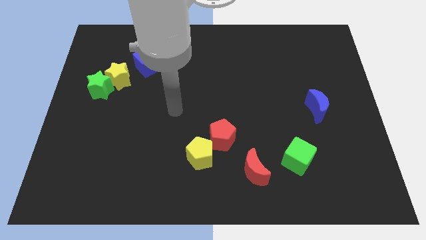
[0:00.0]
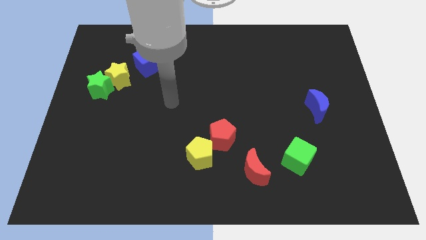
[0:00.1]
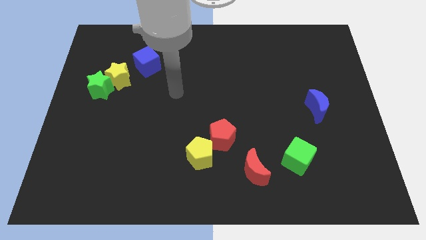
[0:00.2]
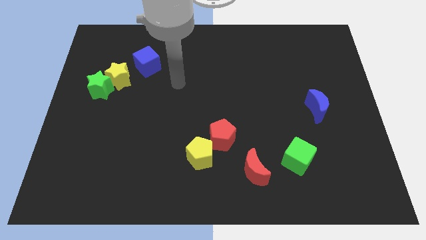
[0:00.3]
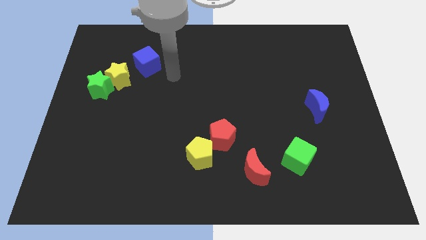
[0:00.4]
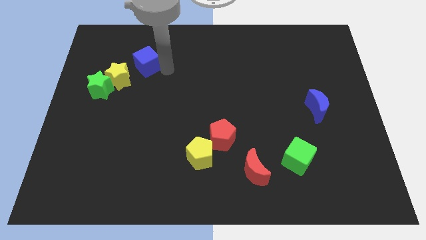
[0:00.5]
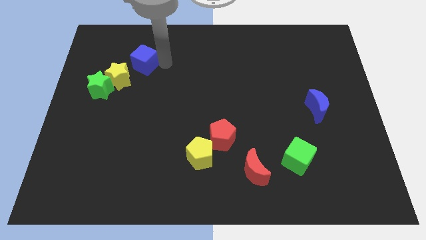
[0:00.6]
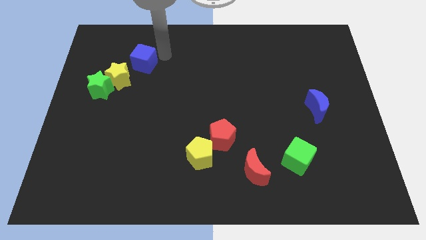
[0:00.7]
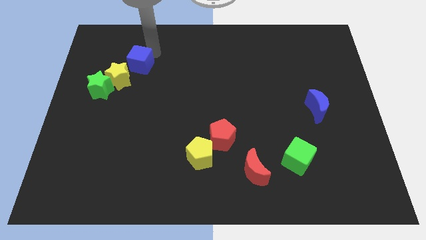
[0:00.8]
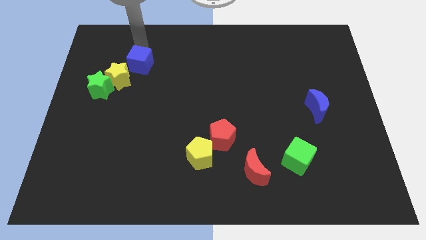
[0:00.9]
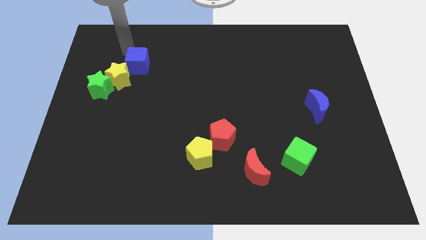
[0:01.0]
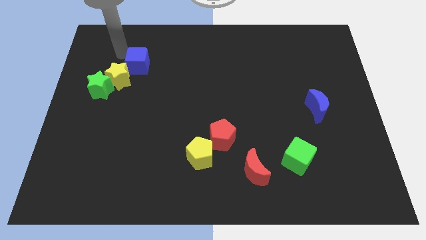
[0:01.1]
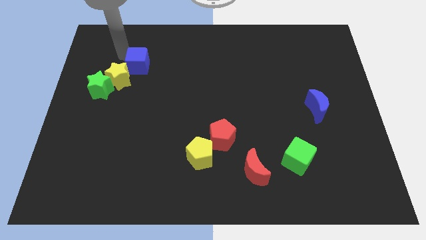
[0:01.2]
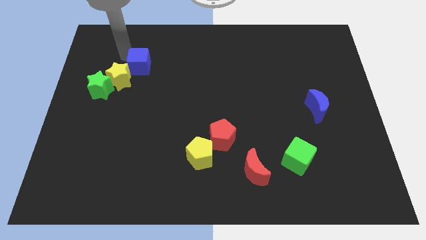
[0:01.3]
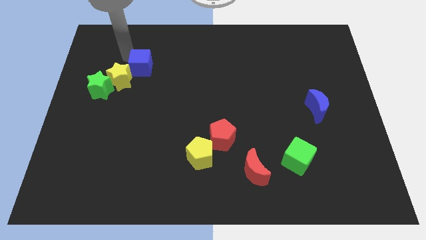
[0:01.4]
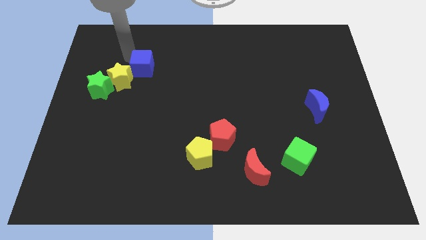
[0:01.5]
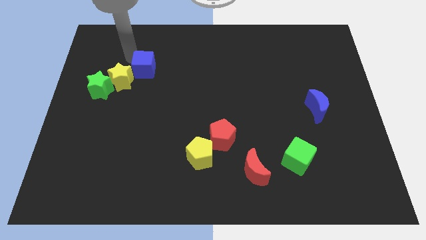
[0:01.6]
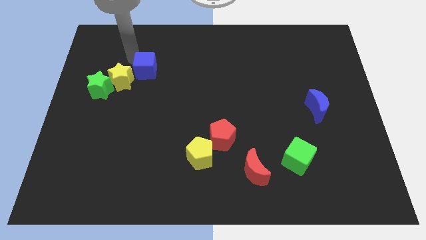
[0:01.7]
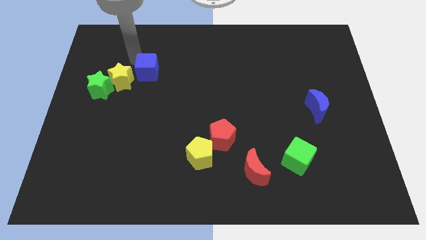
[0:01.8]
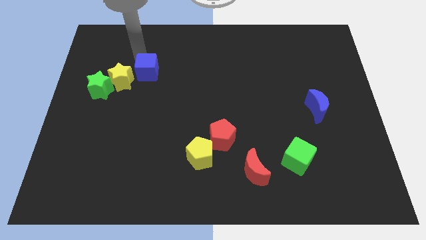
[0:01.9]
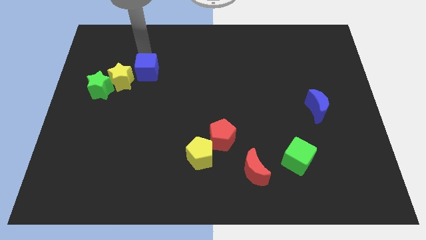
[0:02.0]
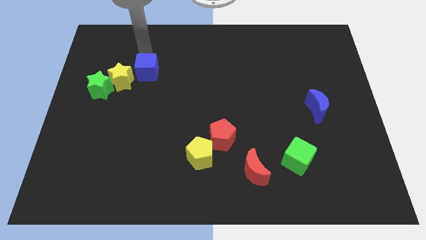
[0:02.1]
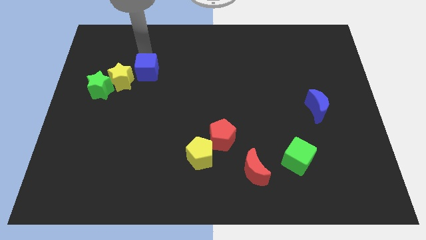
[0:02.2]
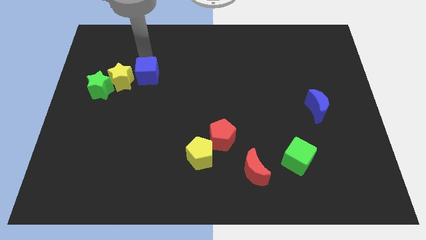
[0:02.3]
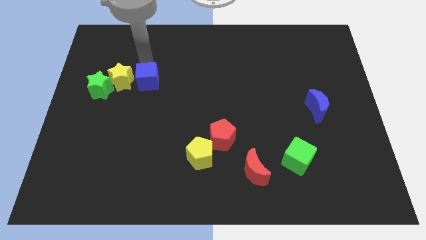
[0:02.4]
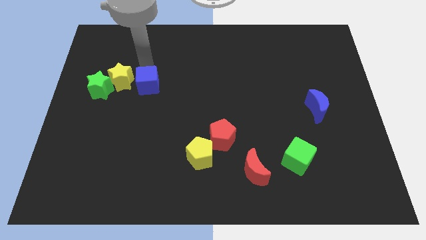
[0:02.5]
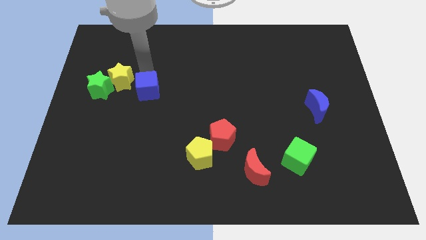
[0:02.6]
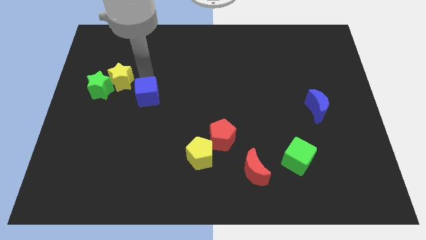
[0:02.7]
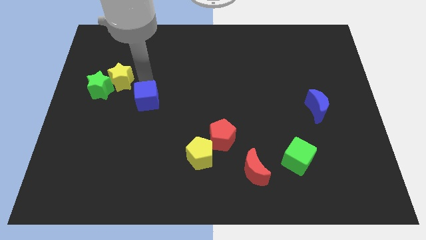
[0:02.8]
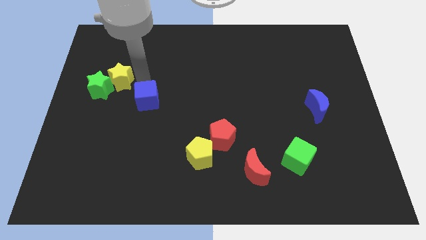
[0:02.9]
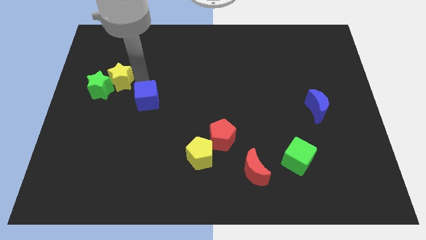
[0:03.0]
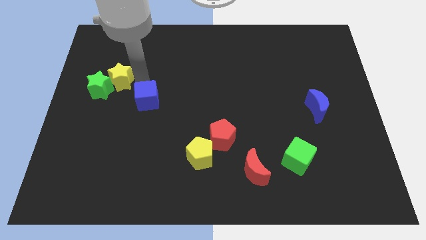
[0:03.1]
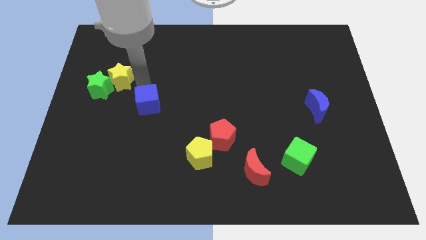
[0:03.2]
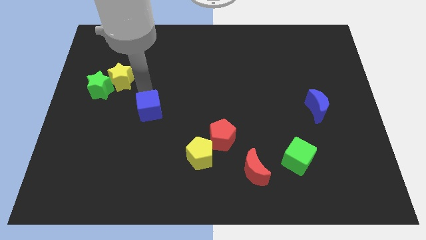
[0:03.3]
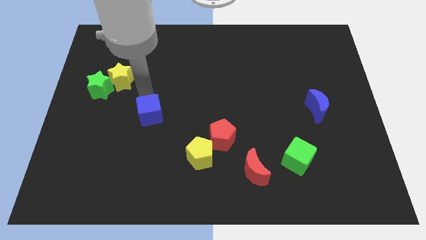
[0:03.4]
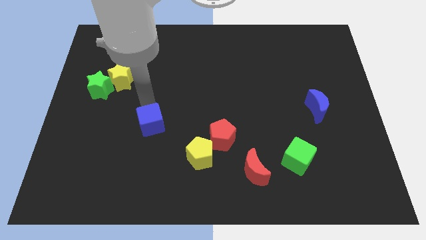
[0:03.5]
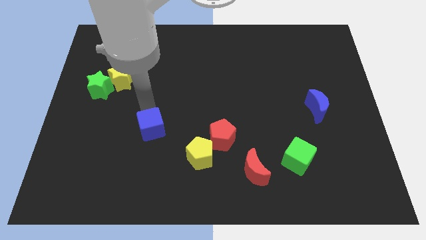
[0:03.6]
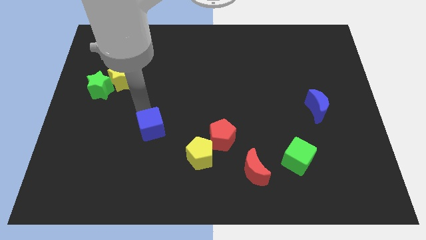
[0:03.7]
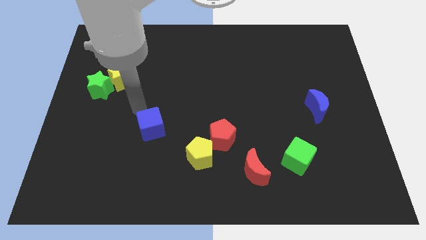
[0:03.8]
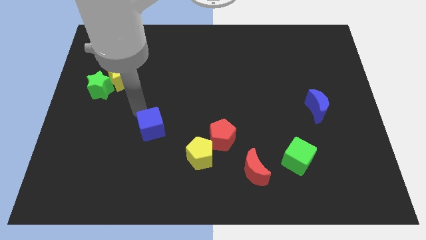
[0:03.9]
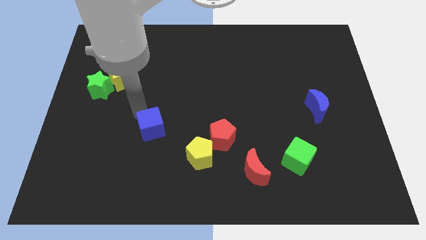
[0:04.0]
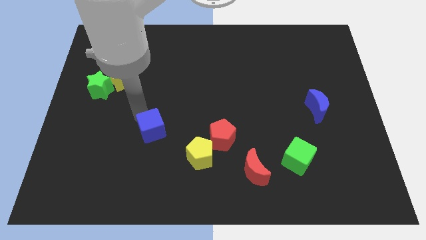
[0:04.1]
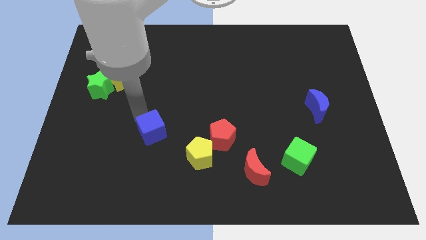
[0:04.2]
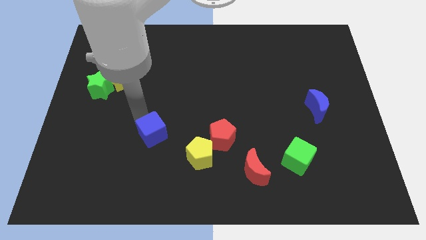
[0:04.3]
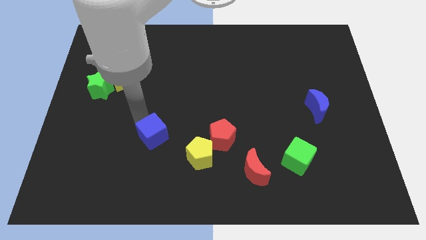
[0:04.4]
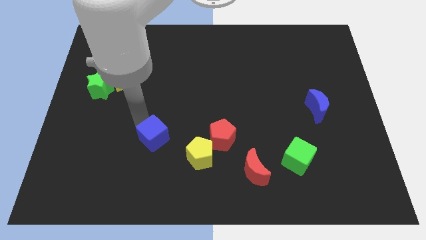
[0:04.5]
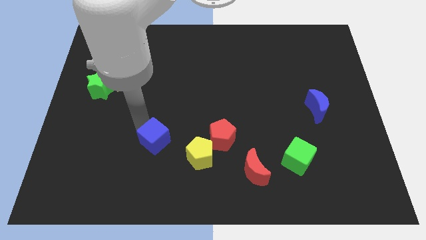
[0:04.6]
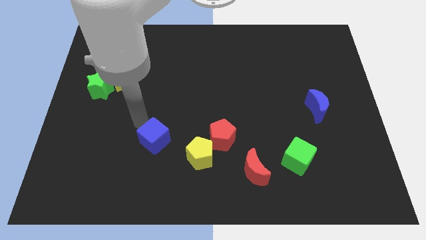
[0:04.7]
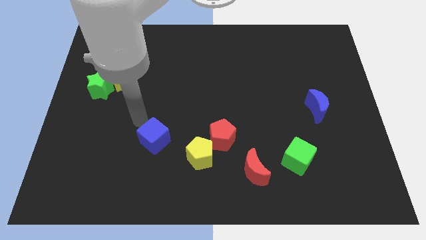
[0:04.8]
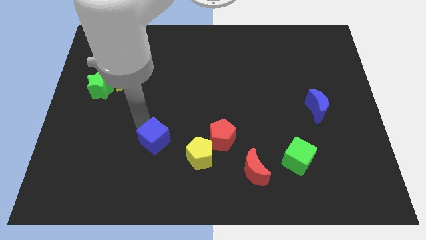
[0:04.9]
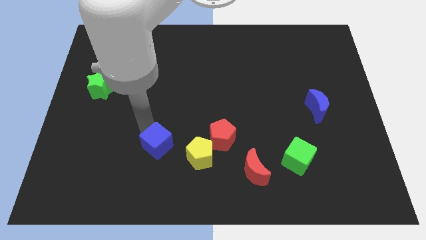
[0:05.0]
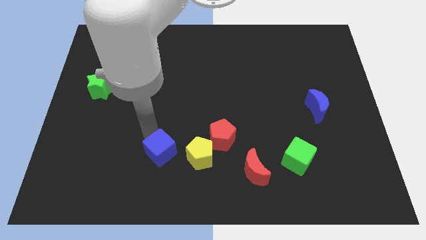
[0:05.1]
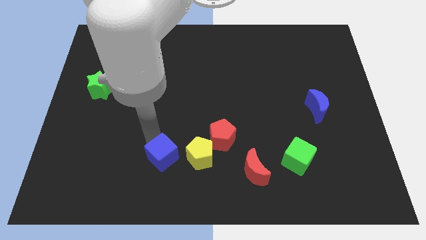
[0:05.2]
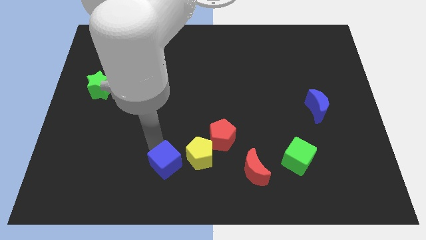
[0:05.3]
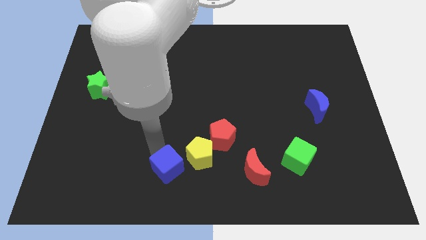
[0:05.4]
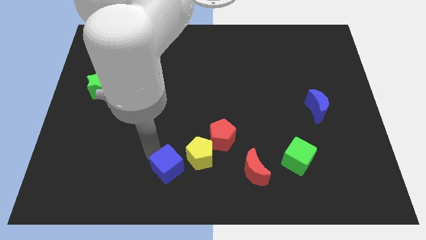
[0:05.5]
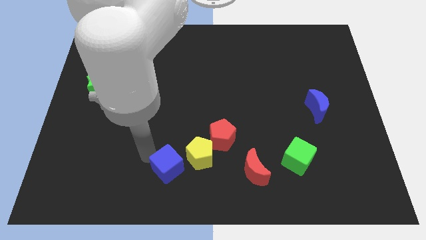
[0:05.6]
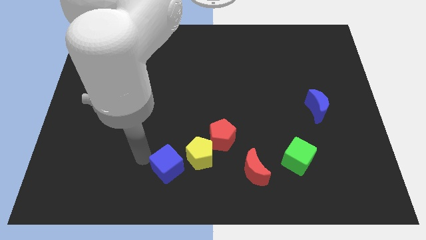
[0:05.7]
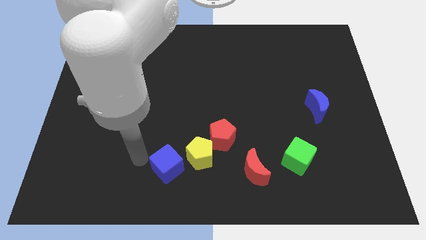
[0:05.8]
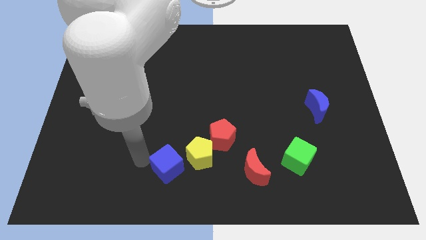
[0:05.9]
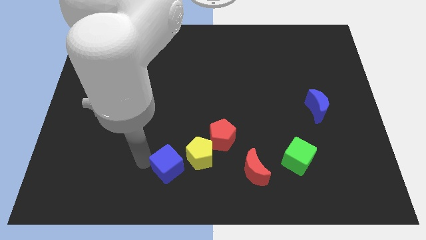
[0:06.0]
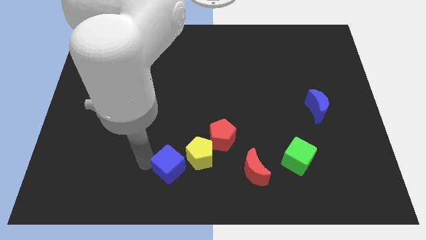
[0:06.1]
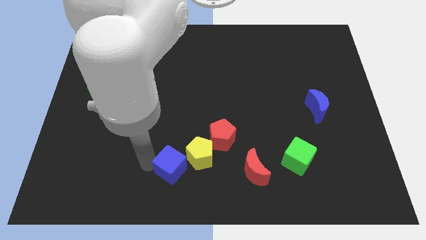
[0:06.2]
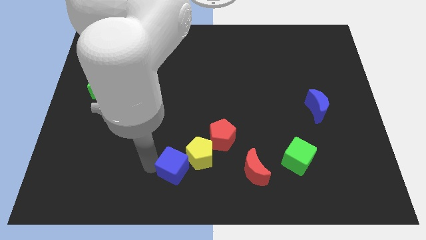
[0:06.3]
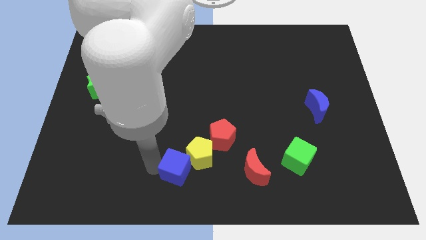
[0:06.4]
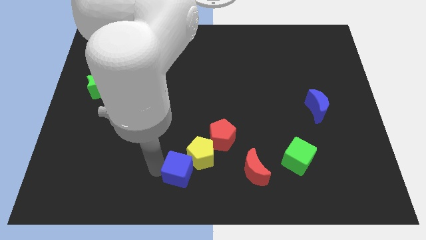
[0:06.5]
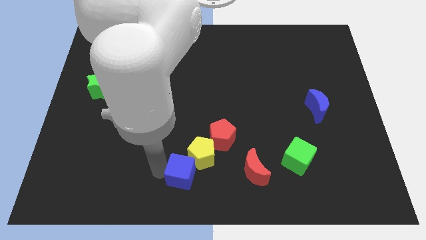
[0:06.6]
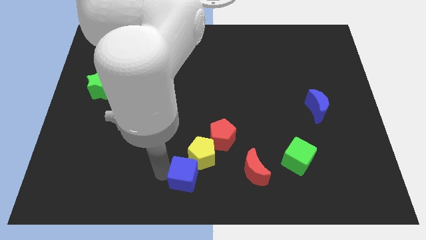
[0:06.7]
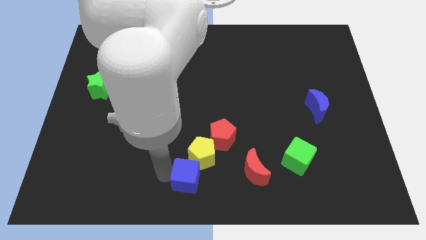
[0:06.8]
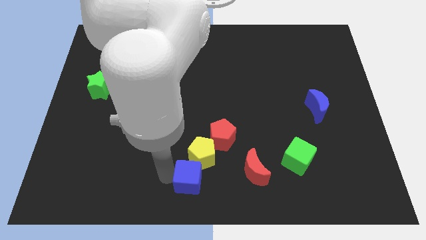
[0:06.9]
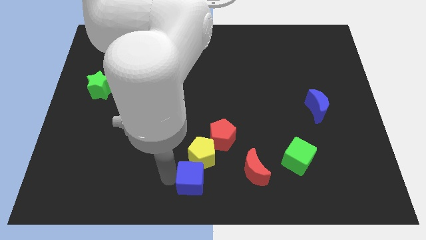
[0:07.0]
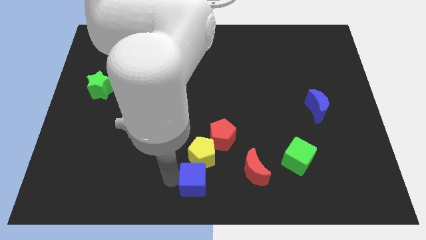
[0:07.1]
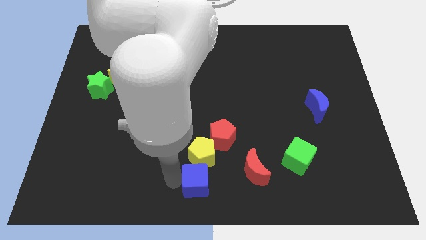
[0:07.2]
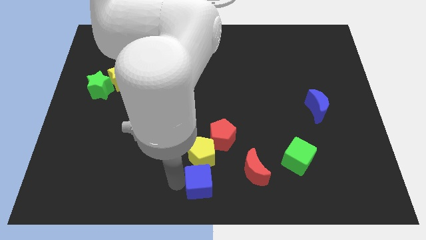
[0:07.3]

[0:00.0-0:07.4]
push the blue cube to the bottom of the red pentagon
